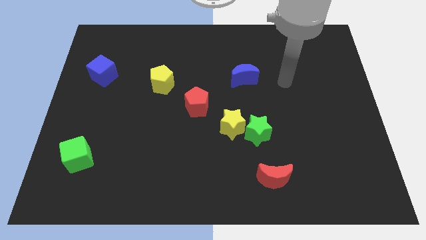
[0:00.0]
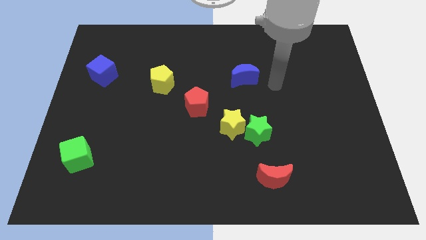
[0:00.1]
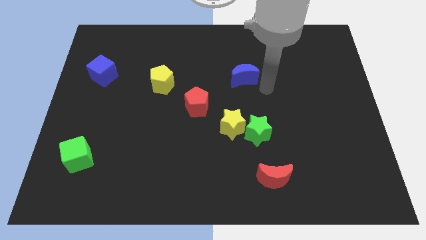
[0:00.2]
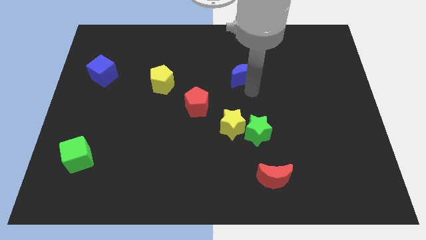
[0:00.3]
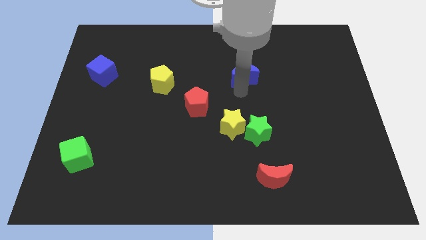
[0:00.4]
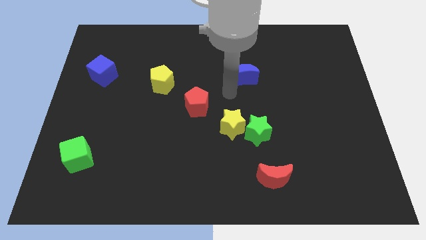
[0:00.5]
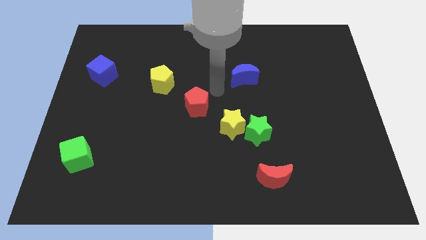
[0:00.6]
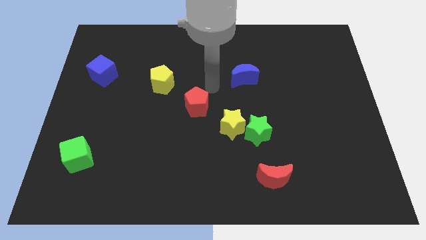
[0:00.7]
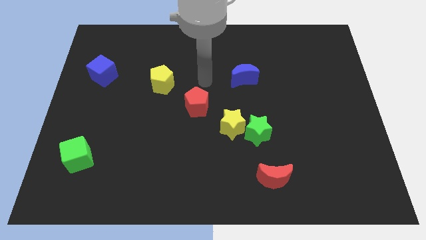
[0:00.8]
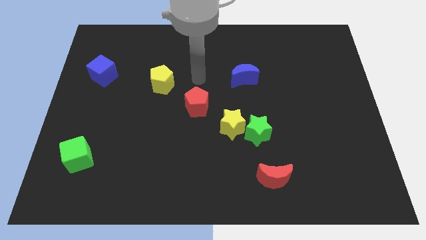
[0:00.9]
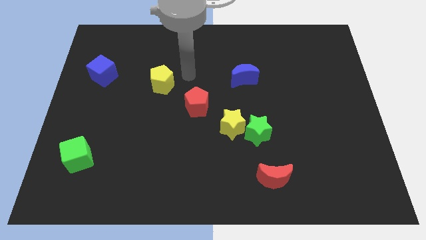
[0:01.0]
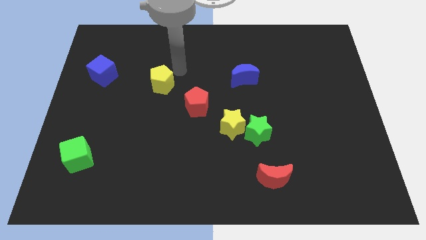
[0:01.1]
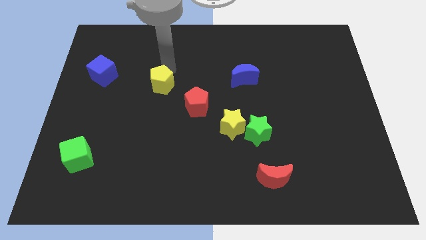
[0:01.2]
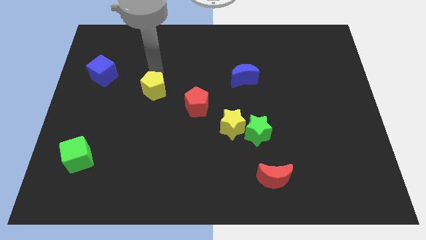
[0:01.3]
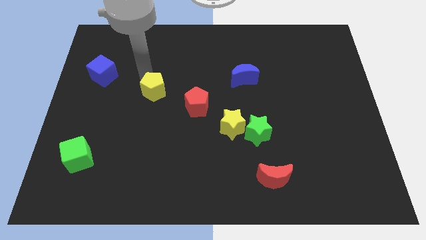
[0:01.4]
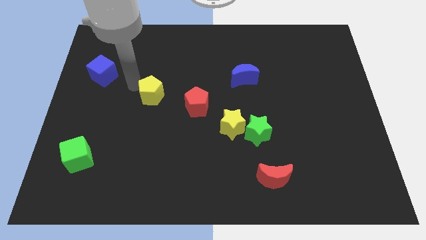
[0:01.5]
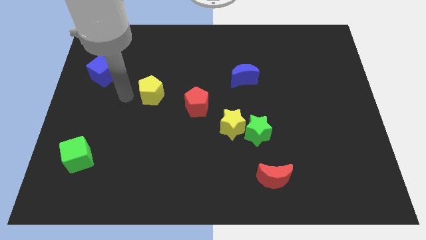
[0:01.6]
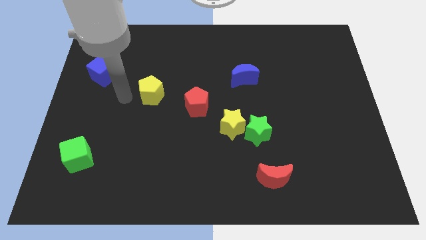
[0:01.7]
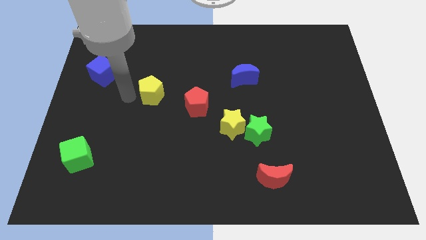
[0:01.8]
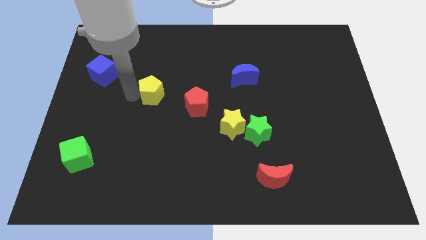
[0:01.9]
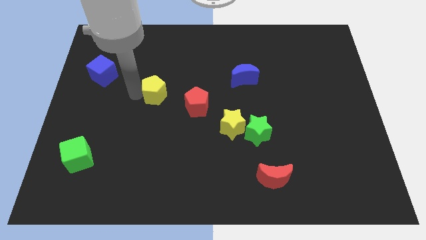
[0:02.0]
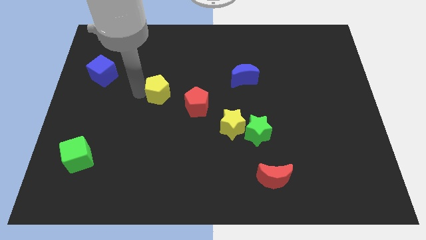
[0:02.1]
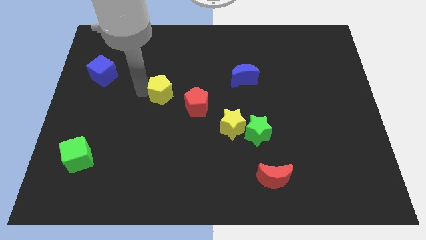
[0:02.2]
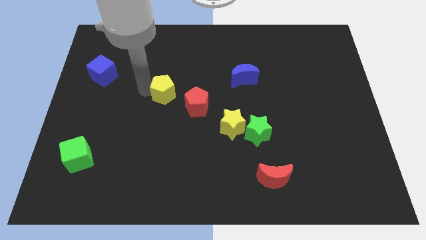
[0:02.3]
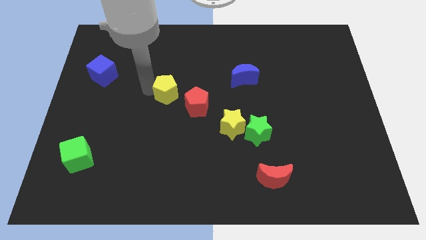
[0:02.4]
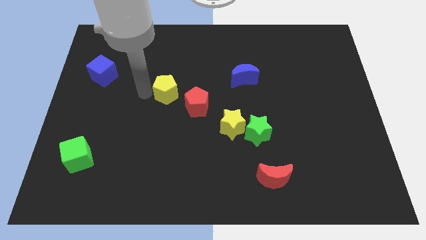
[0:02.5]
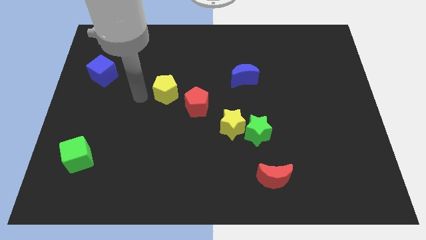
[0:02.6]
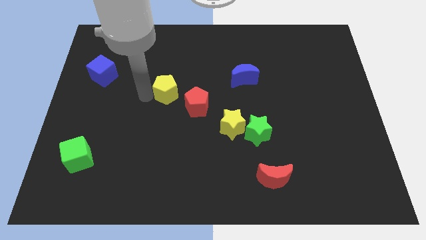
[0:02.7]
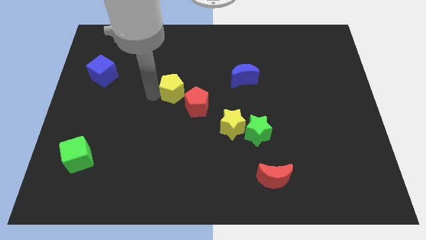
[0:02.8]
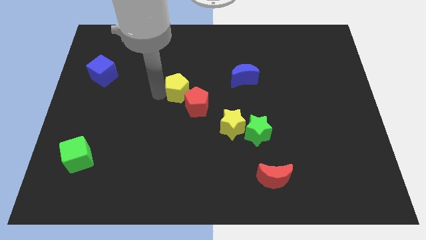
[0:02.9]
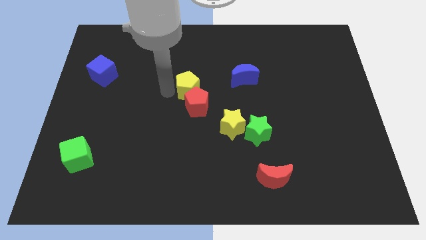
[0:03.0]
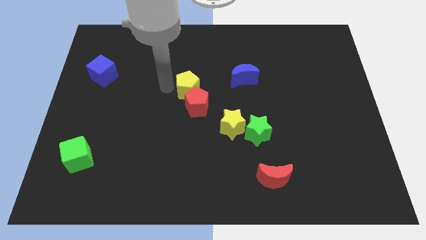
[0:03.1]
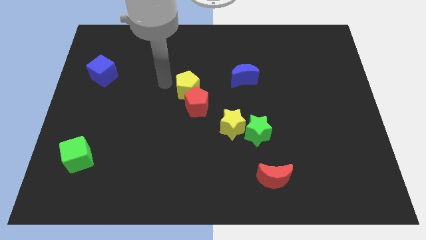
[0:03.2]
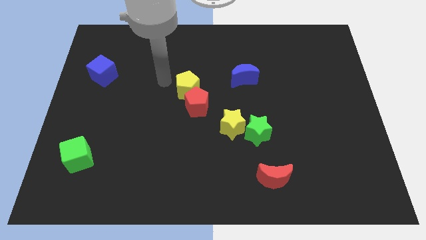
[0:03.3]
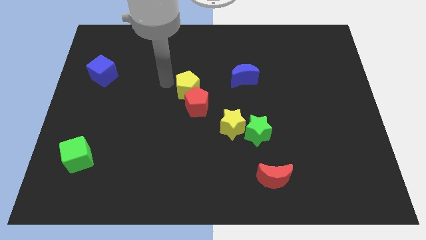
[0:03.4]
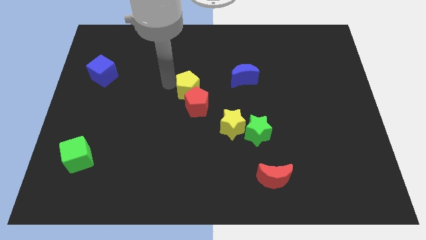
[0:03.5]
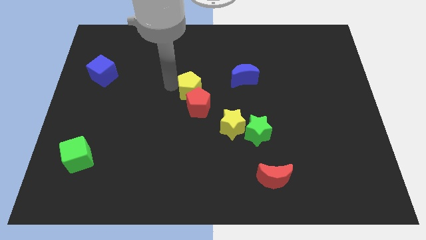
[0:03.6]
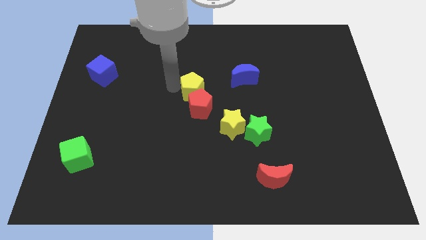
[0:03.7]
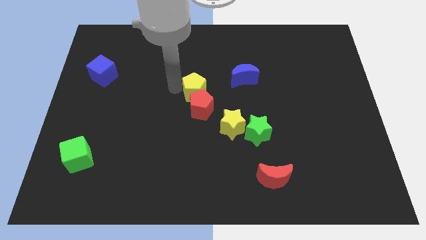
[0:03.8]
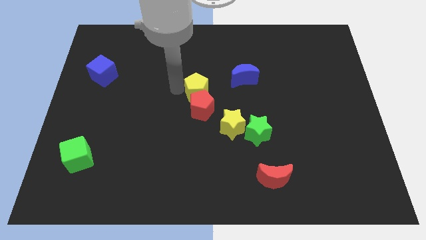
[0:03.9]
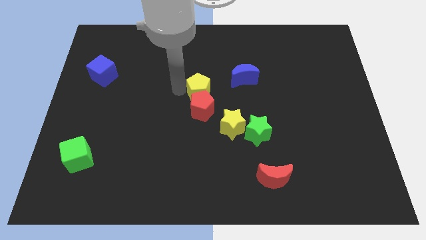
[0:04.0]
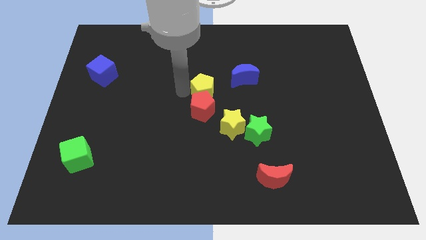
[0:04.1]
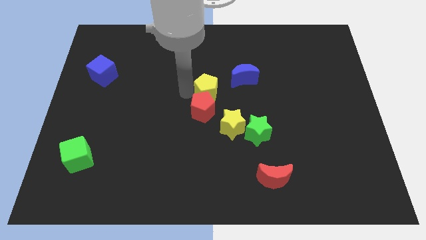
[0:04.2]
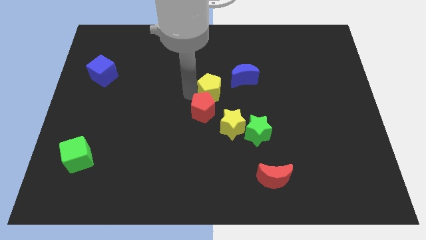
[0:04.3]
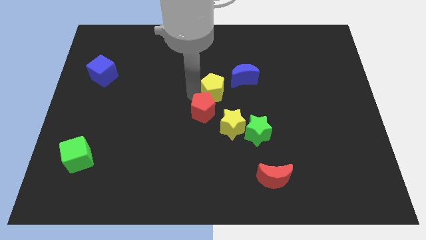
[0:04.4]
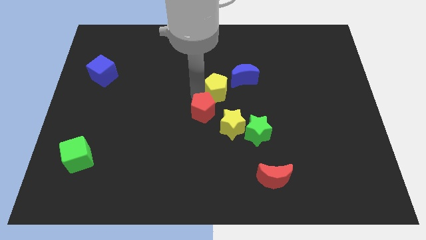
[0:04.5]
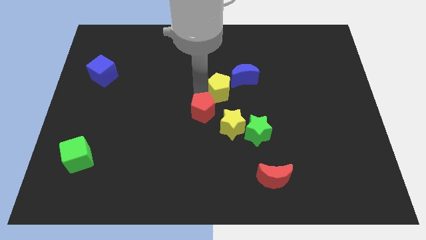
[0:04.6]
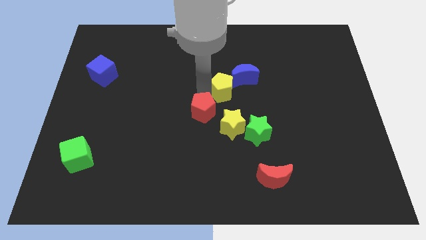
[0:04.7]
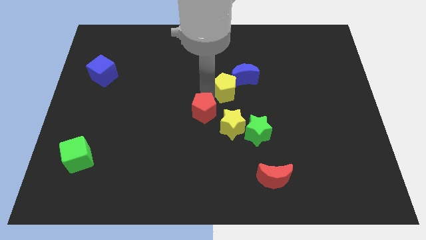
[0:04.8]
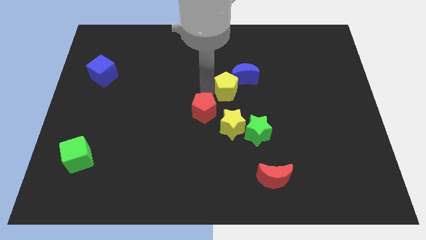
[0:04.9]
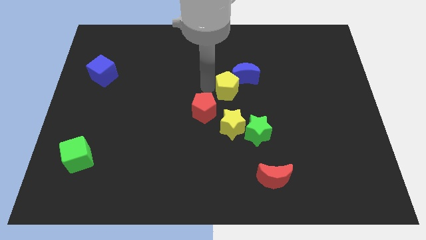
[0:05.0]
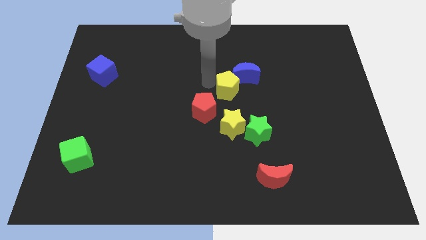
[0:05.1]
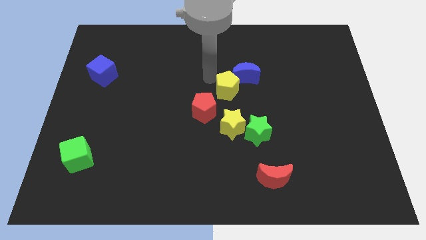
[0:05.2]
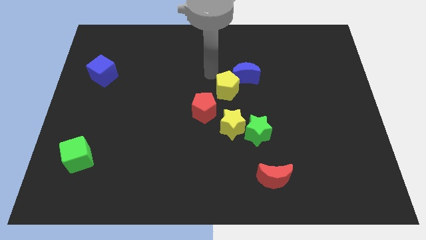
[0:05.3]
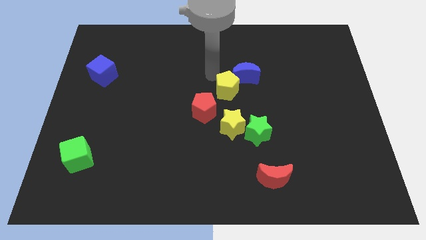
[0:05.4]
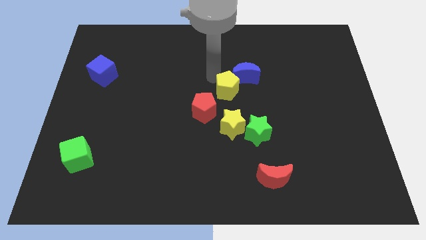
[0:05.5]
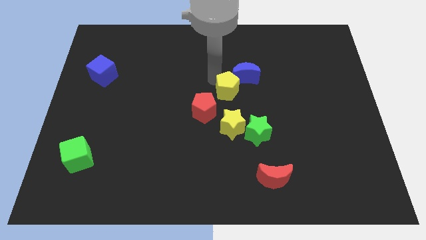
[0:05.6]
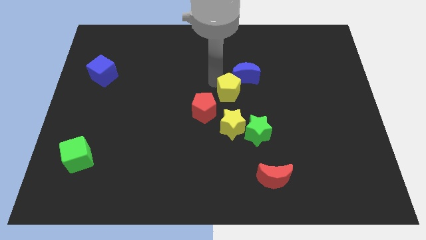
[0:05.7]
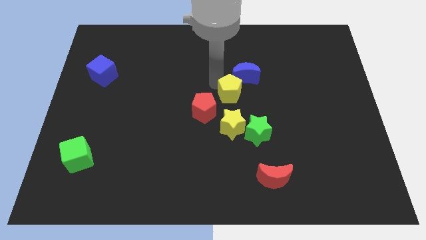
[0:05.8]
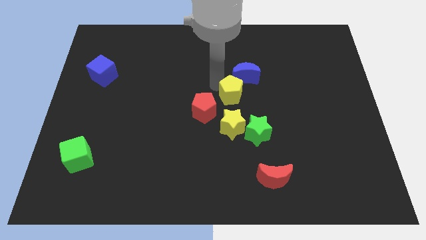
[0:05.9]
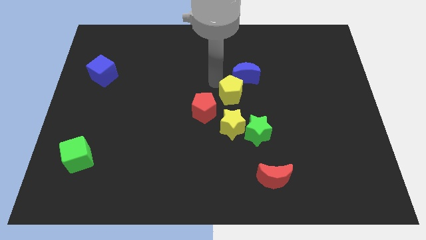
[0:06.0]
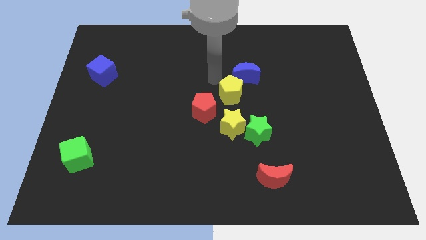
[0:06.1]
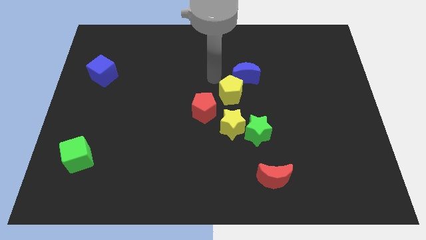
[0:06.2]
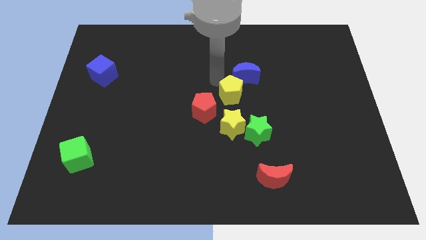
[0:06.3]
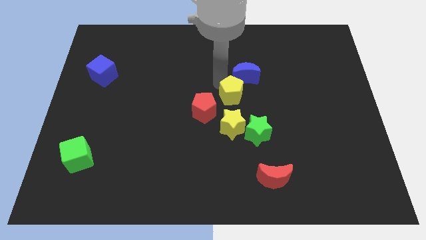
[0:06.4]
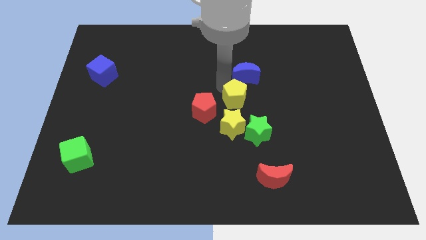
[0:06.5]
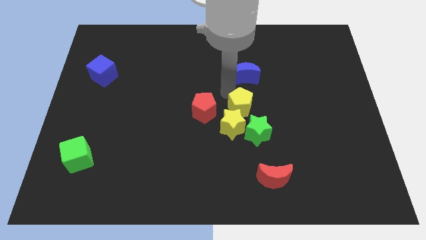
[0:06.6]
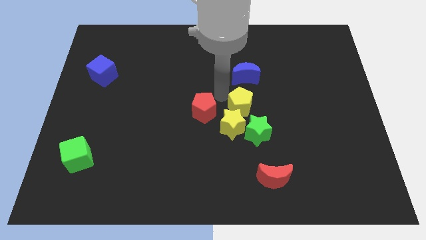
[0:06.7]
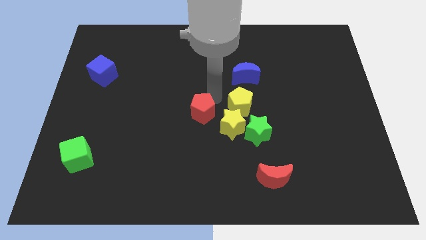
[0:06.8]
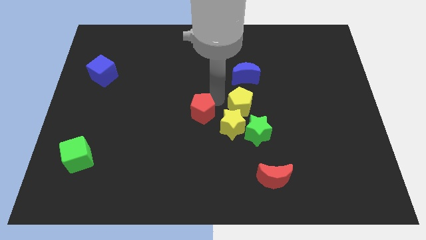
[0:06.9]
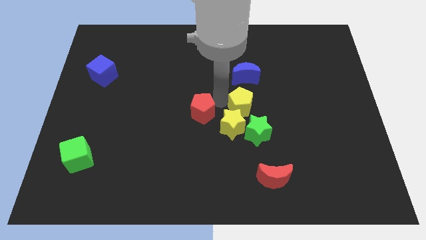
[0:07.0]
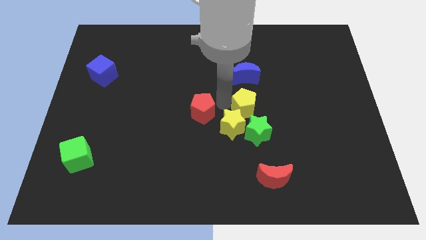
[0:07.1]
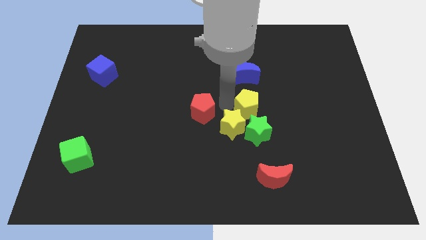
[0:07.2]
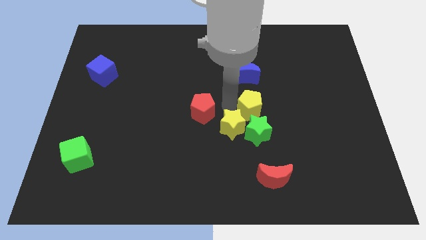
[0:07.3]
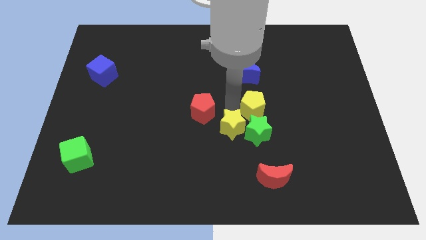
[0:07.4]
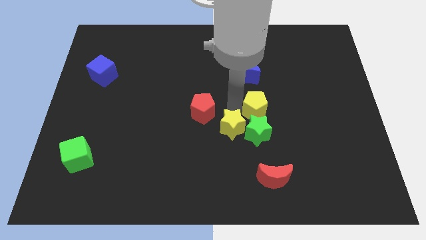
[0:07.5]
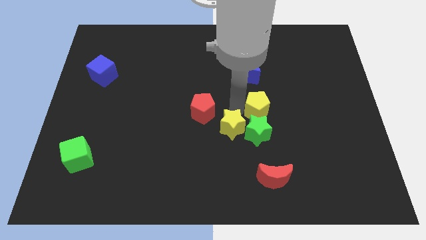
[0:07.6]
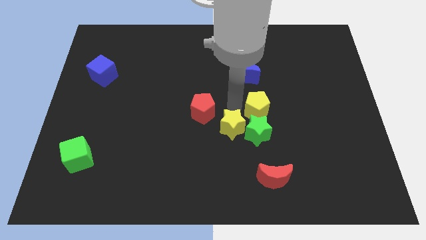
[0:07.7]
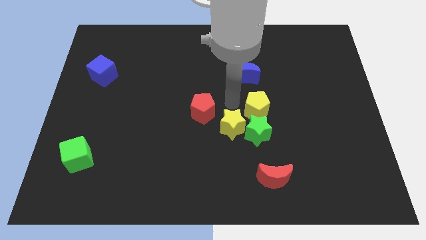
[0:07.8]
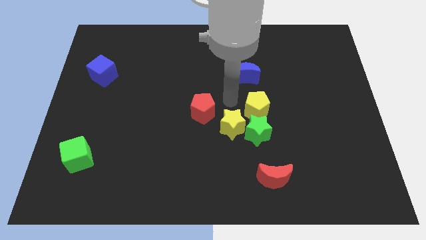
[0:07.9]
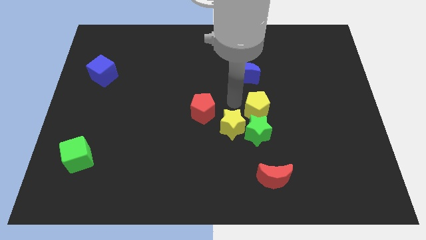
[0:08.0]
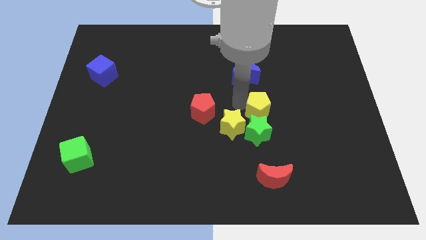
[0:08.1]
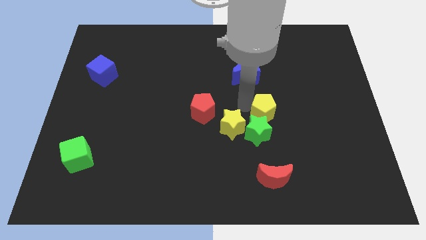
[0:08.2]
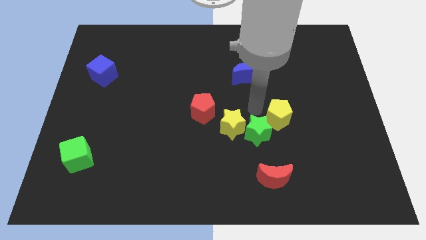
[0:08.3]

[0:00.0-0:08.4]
slide the yellow pentagon just right of the green star
